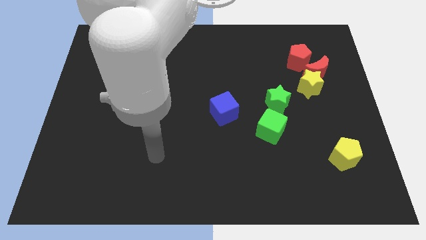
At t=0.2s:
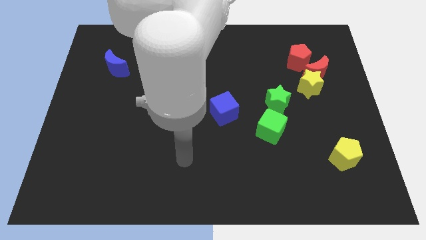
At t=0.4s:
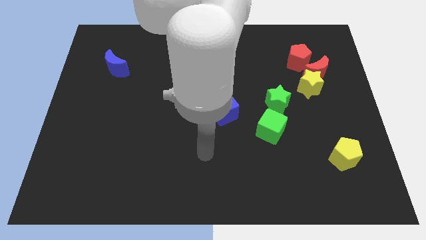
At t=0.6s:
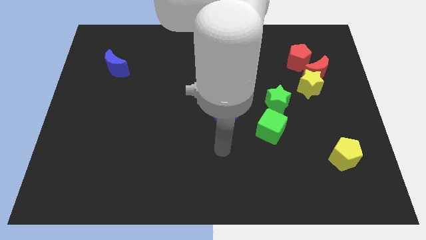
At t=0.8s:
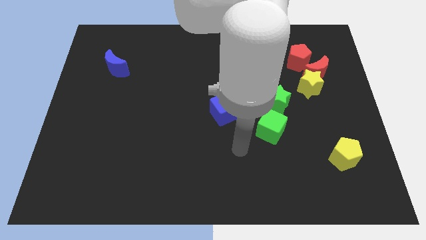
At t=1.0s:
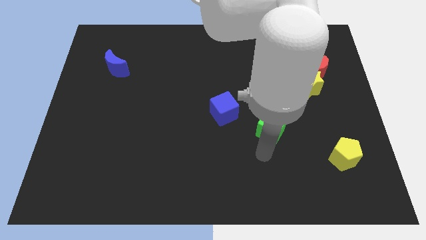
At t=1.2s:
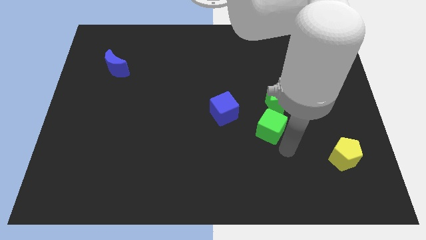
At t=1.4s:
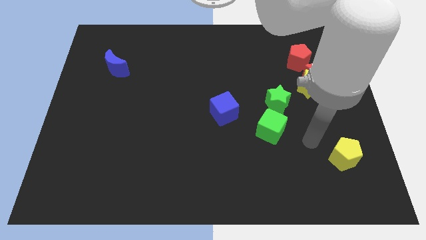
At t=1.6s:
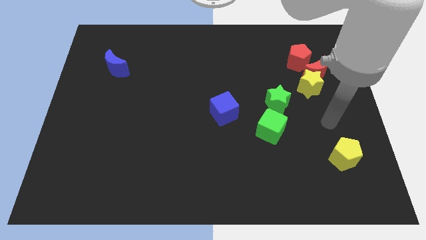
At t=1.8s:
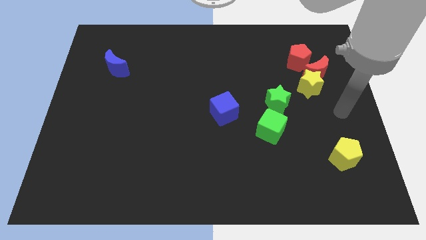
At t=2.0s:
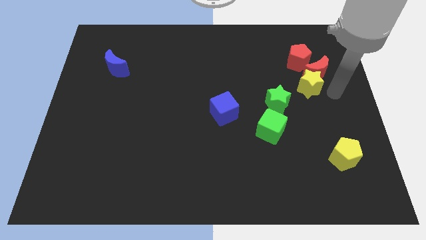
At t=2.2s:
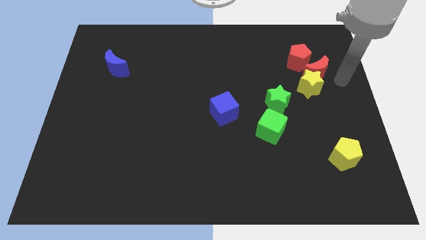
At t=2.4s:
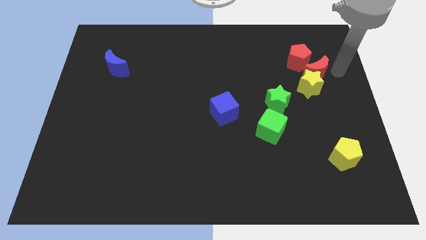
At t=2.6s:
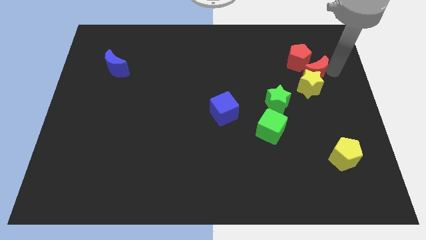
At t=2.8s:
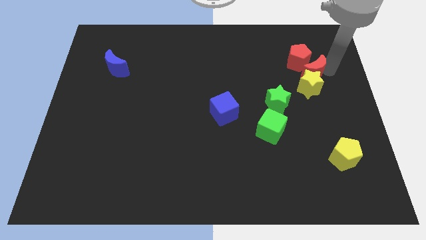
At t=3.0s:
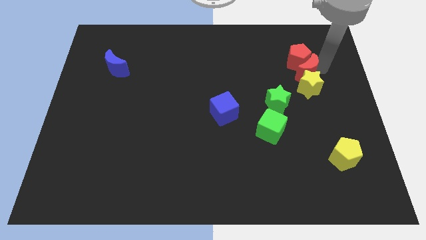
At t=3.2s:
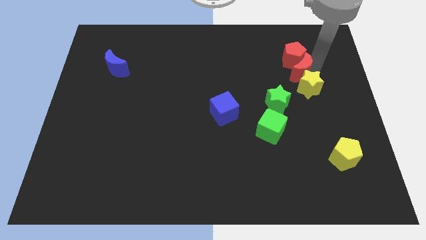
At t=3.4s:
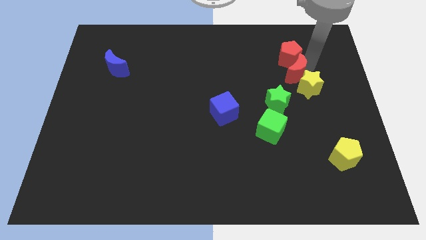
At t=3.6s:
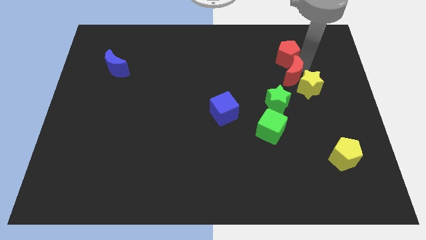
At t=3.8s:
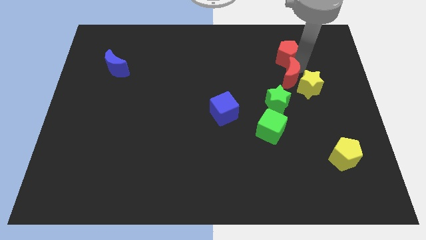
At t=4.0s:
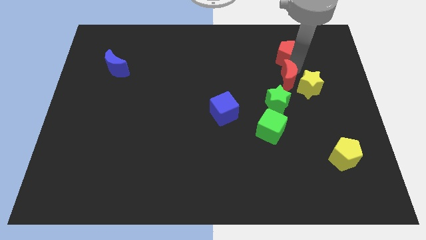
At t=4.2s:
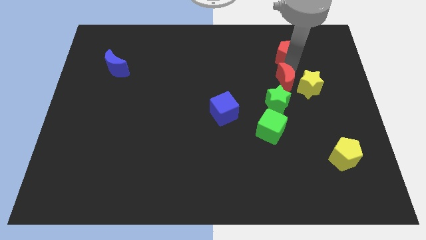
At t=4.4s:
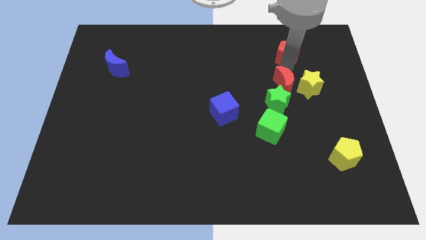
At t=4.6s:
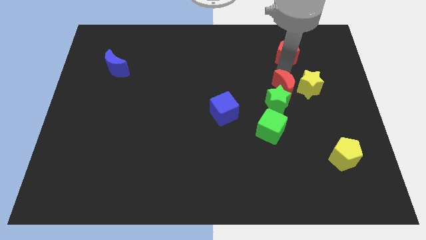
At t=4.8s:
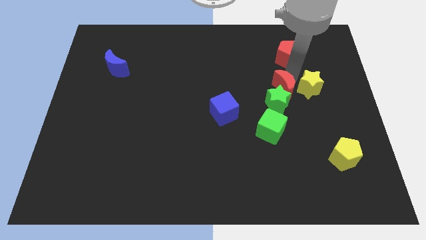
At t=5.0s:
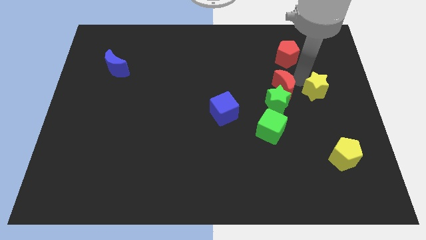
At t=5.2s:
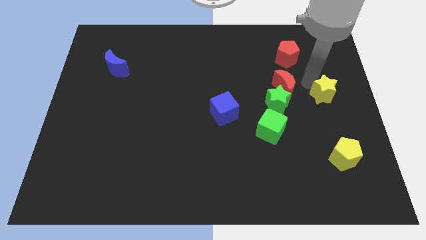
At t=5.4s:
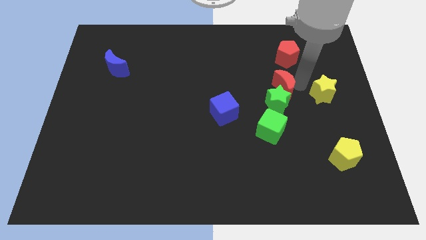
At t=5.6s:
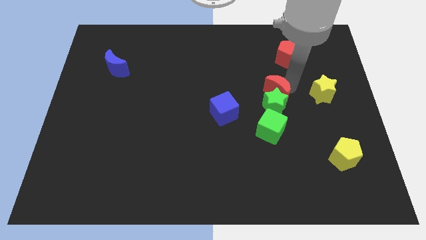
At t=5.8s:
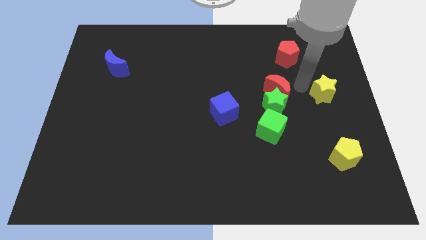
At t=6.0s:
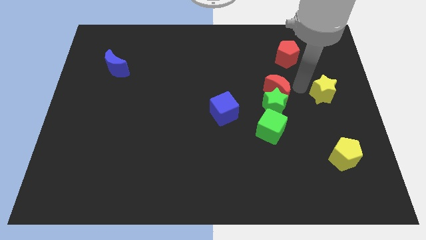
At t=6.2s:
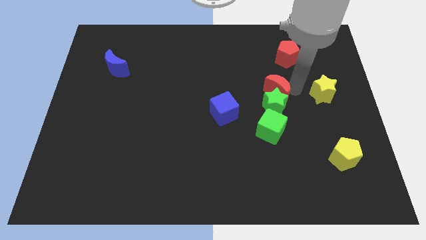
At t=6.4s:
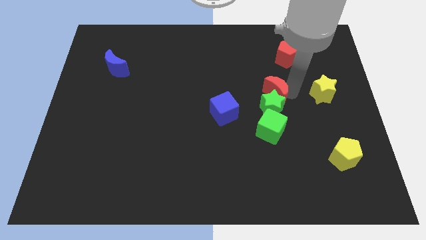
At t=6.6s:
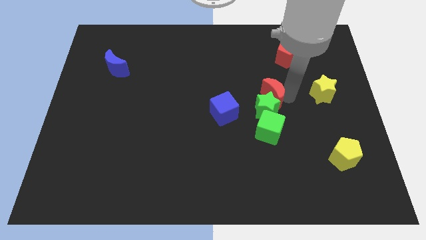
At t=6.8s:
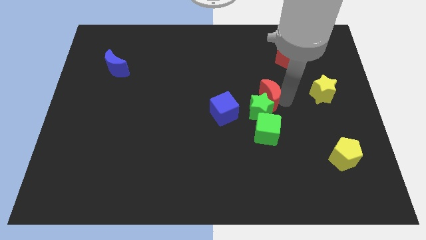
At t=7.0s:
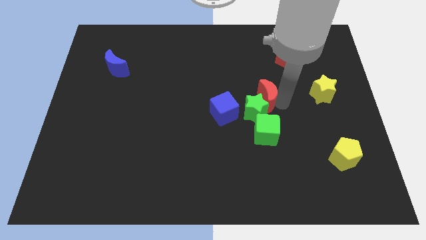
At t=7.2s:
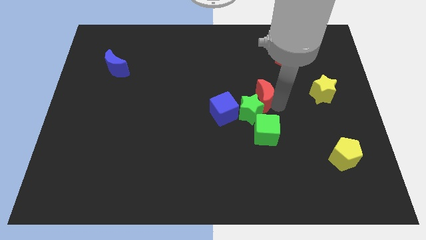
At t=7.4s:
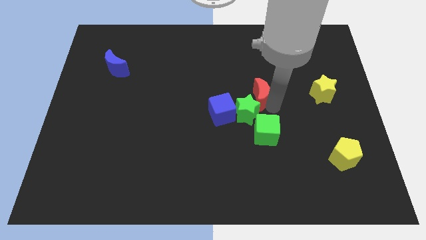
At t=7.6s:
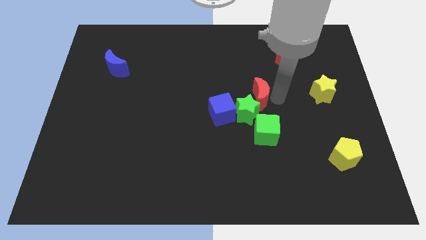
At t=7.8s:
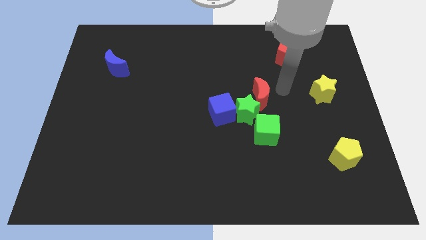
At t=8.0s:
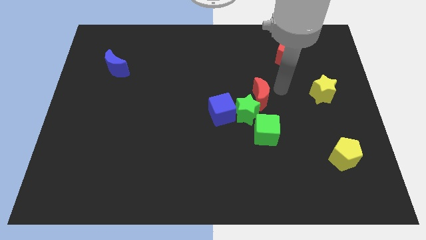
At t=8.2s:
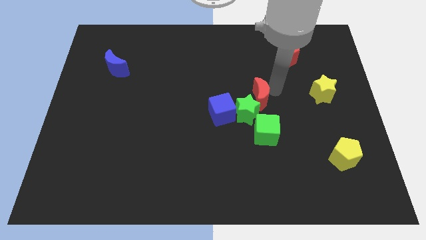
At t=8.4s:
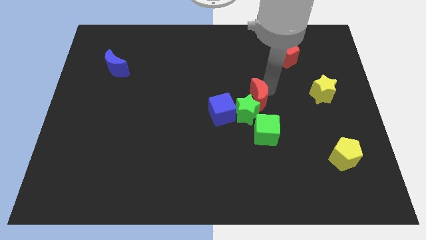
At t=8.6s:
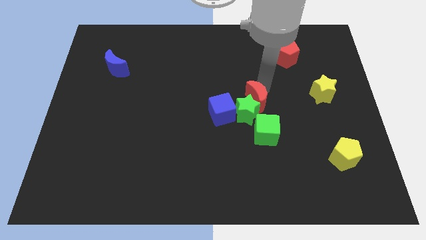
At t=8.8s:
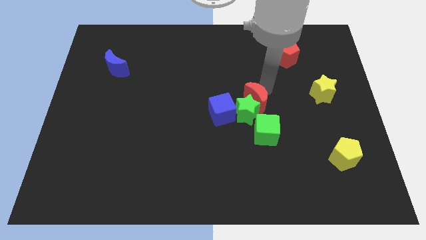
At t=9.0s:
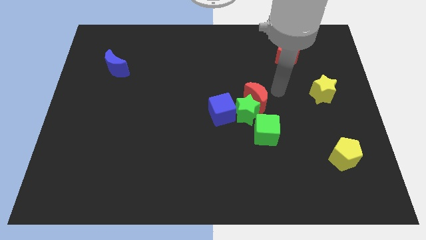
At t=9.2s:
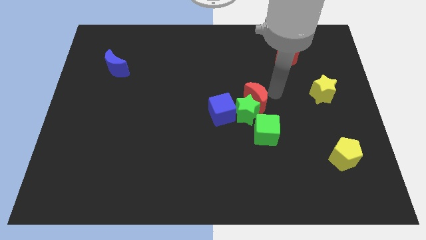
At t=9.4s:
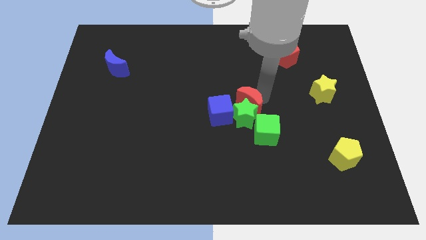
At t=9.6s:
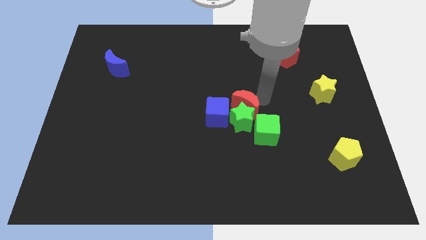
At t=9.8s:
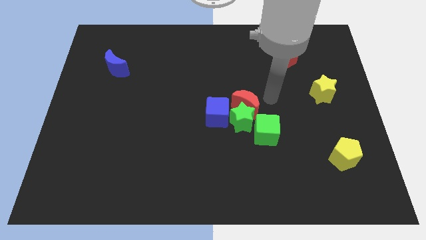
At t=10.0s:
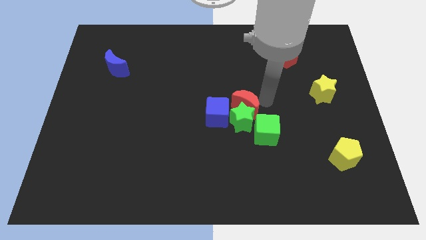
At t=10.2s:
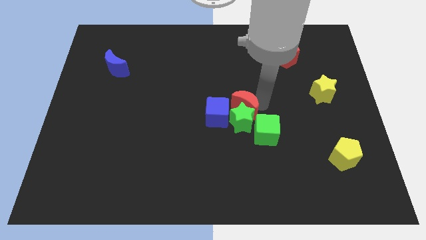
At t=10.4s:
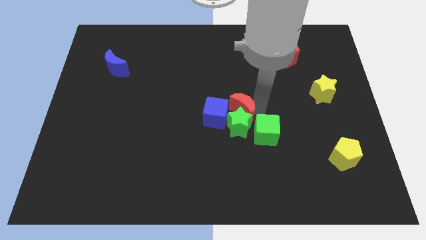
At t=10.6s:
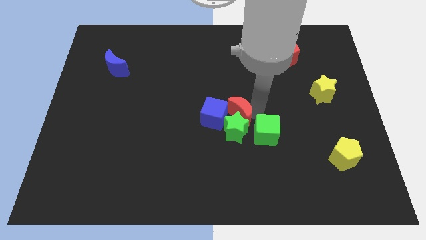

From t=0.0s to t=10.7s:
push the red moon close to the blue cube

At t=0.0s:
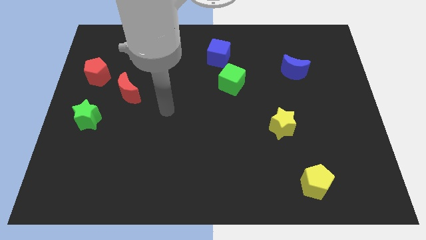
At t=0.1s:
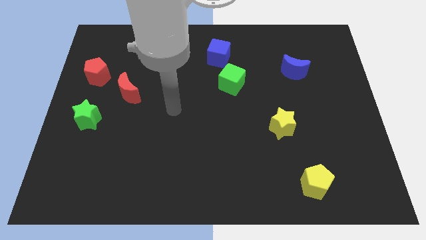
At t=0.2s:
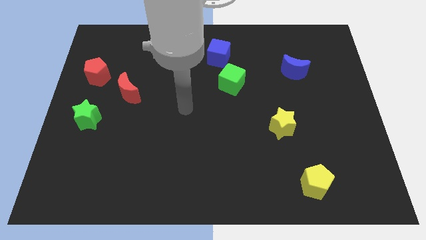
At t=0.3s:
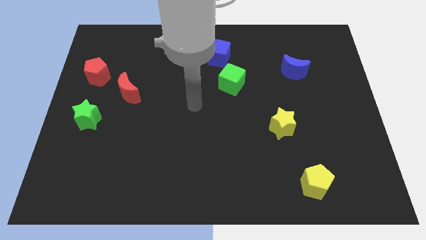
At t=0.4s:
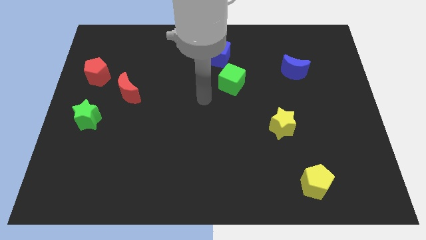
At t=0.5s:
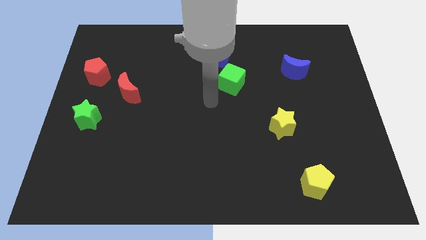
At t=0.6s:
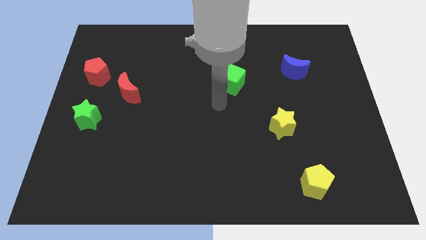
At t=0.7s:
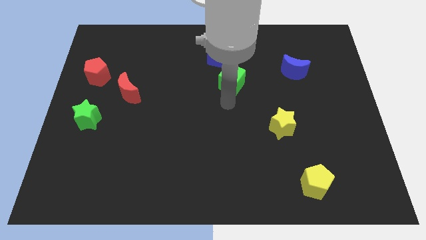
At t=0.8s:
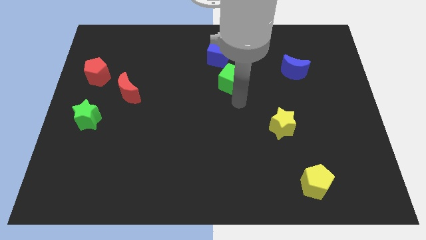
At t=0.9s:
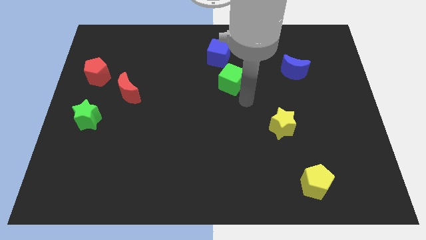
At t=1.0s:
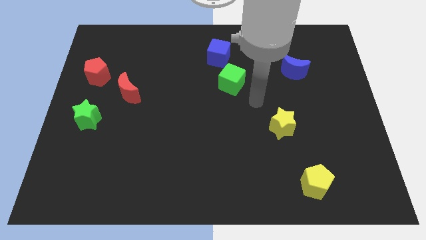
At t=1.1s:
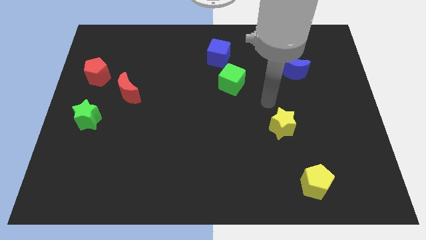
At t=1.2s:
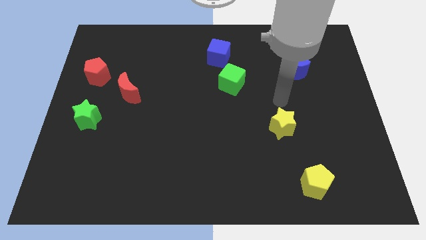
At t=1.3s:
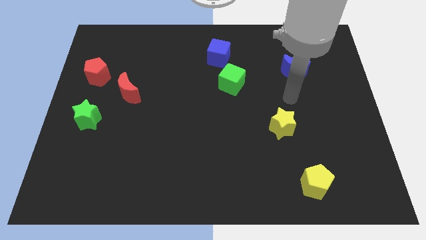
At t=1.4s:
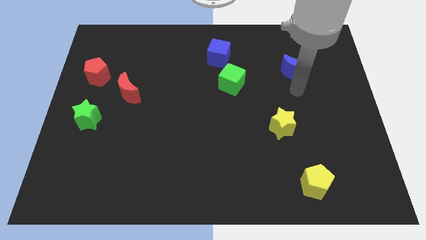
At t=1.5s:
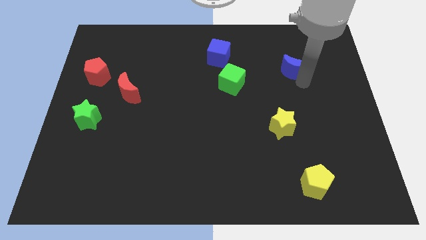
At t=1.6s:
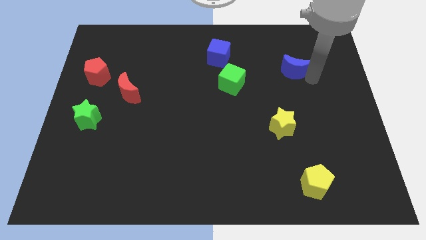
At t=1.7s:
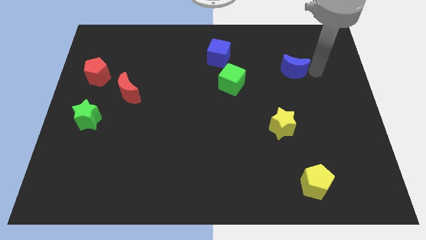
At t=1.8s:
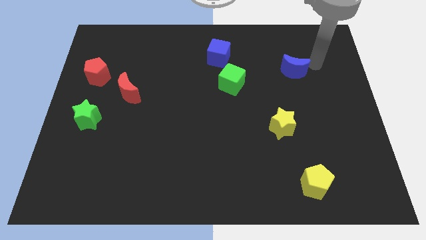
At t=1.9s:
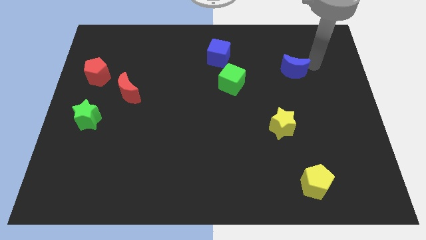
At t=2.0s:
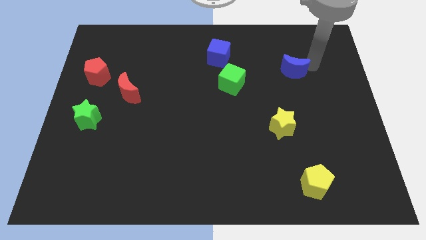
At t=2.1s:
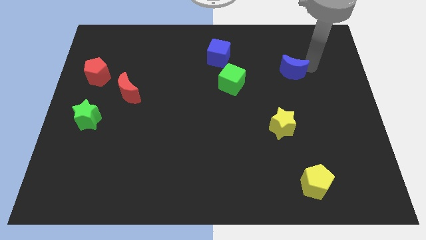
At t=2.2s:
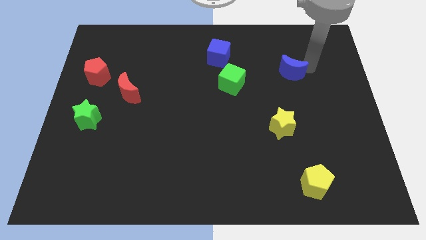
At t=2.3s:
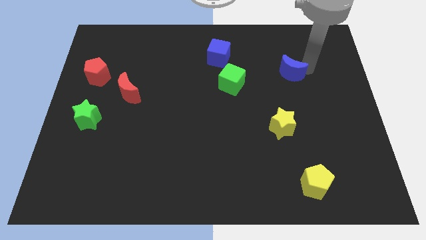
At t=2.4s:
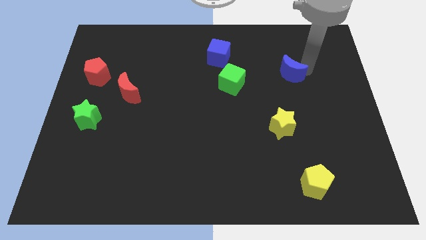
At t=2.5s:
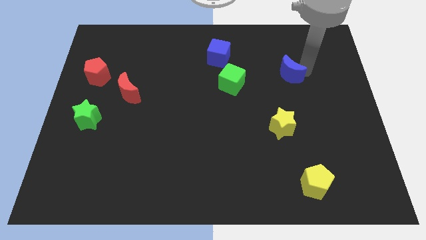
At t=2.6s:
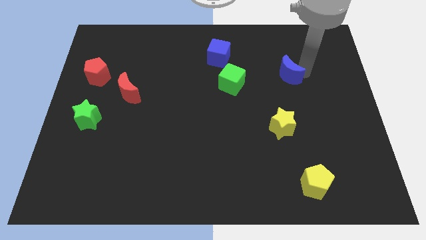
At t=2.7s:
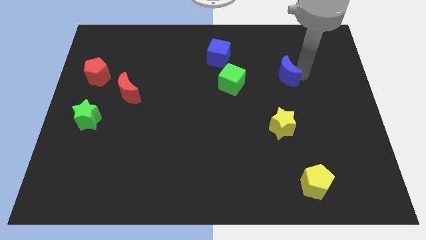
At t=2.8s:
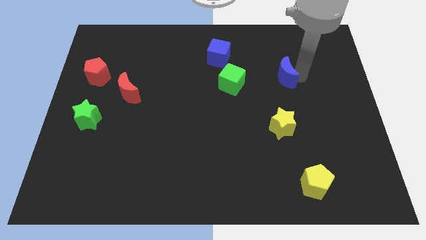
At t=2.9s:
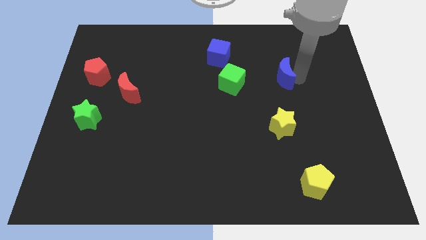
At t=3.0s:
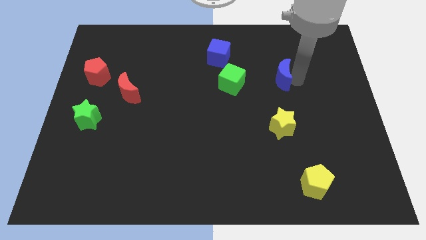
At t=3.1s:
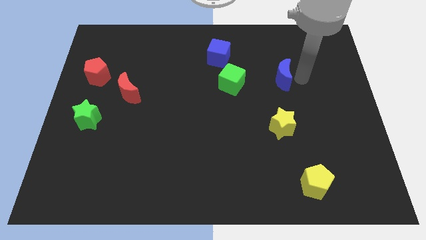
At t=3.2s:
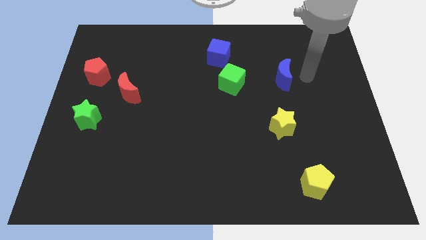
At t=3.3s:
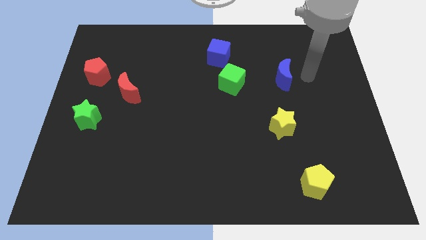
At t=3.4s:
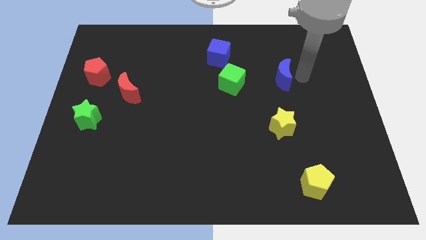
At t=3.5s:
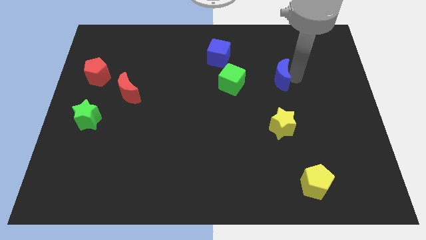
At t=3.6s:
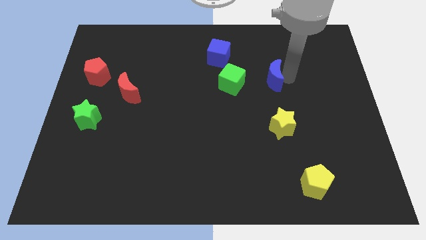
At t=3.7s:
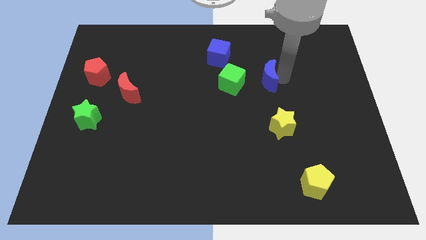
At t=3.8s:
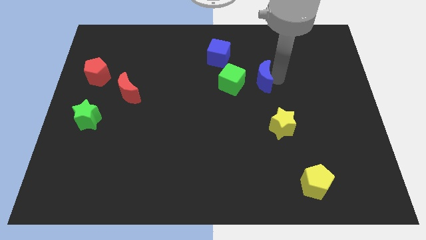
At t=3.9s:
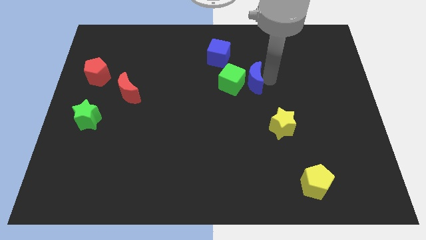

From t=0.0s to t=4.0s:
slide the blue moon to the green cube
